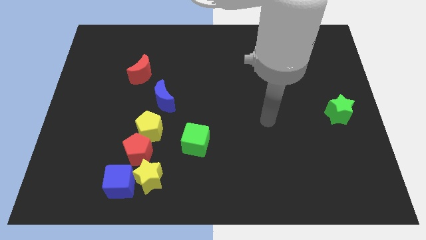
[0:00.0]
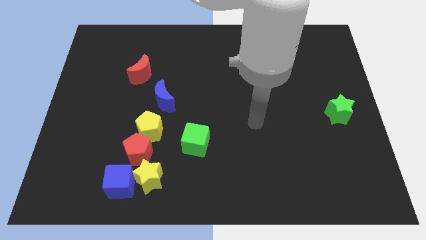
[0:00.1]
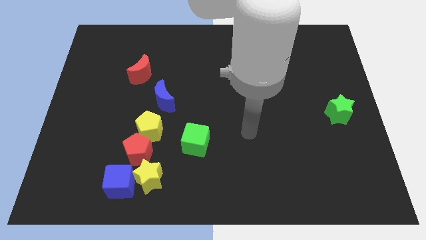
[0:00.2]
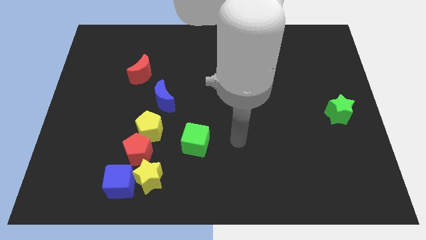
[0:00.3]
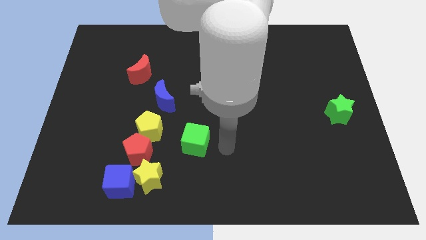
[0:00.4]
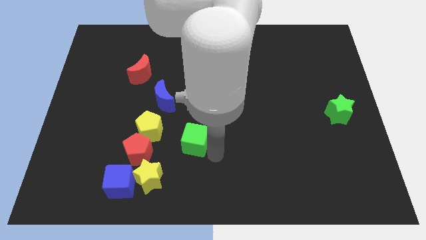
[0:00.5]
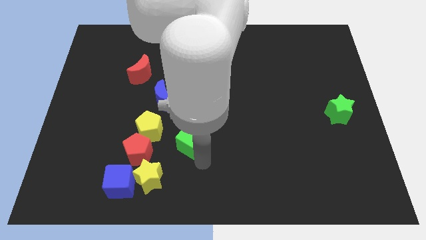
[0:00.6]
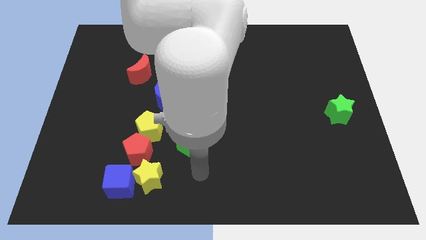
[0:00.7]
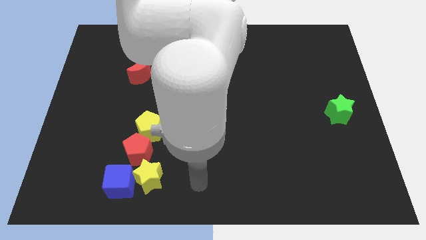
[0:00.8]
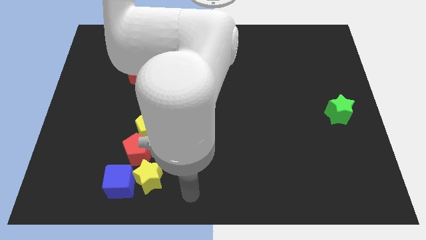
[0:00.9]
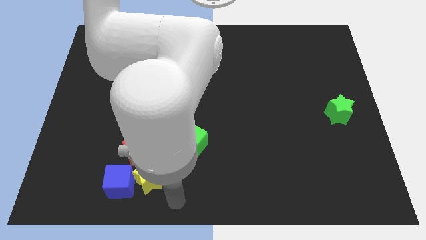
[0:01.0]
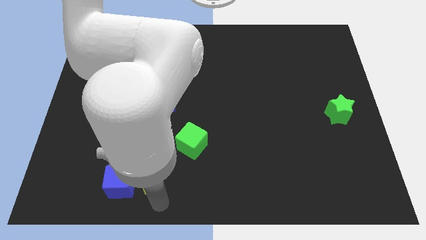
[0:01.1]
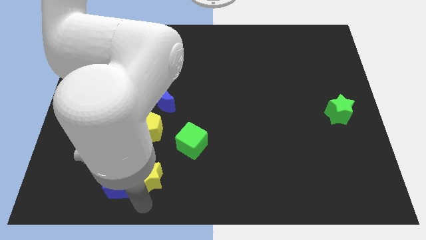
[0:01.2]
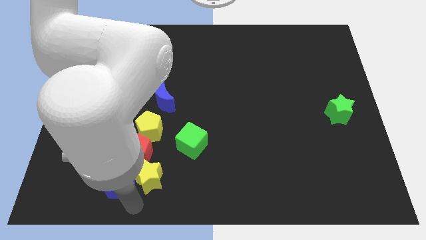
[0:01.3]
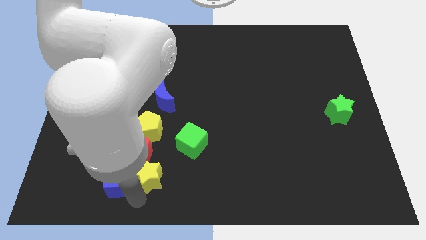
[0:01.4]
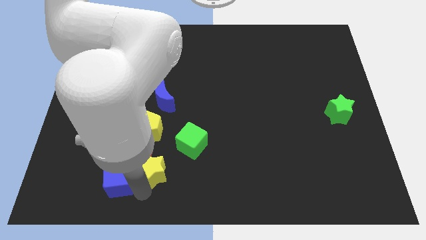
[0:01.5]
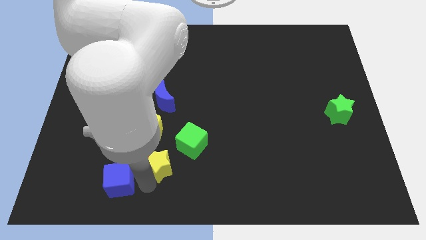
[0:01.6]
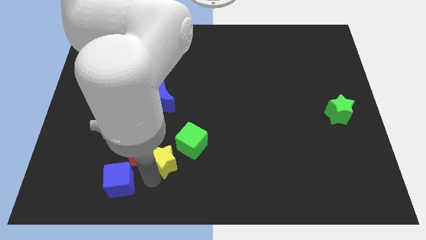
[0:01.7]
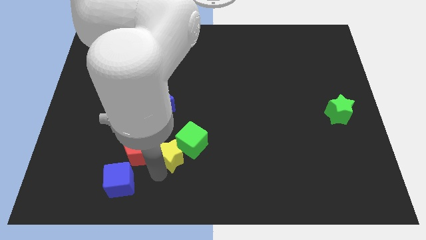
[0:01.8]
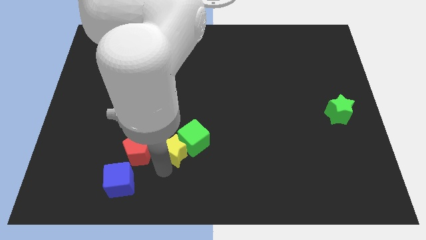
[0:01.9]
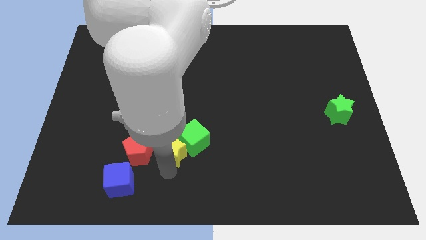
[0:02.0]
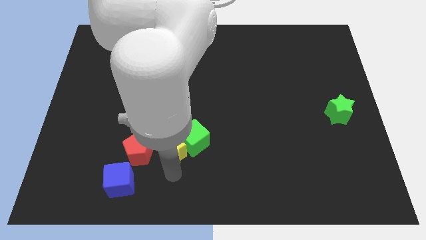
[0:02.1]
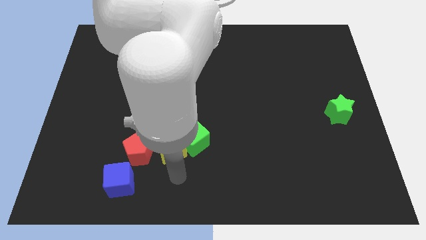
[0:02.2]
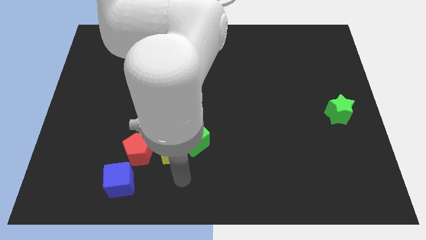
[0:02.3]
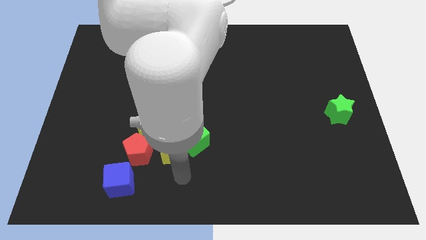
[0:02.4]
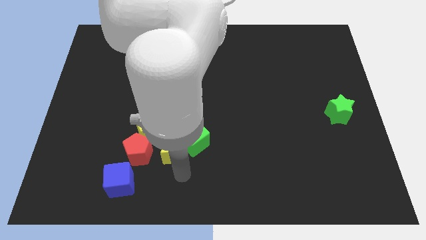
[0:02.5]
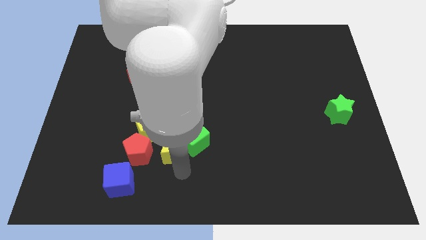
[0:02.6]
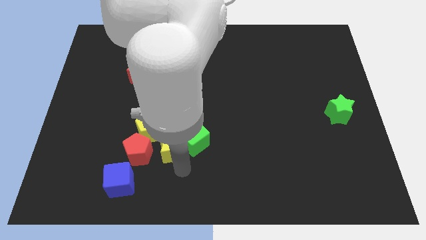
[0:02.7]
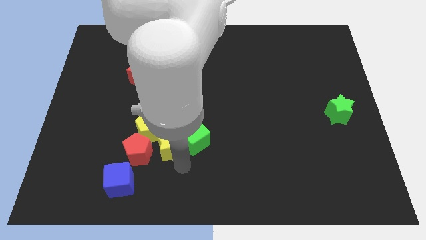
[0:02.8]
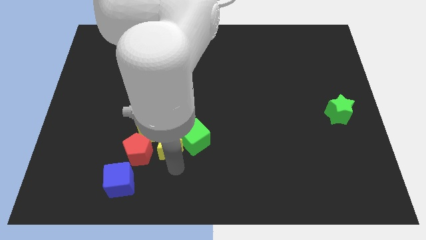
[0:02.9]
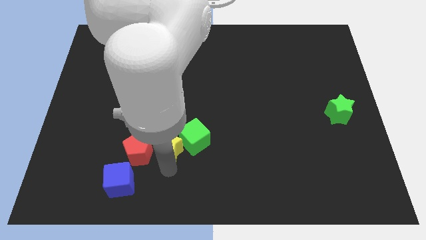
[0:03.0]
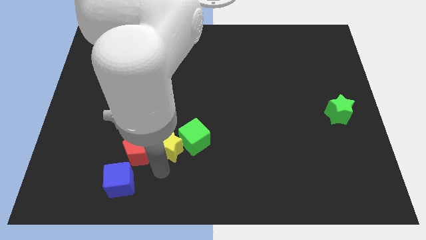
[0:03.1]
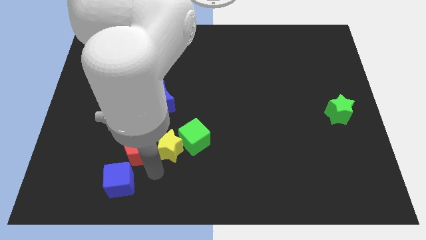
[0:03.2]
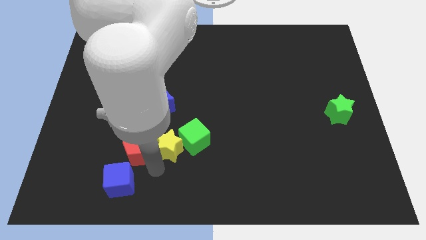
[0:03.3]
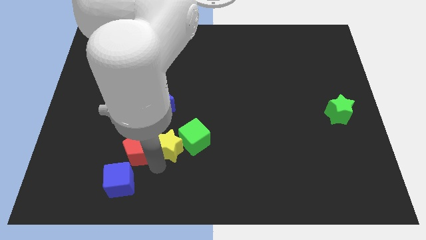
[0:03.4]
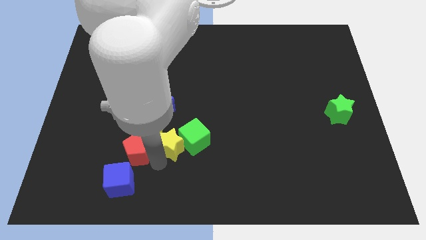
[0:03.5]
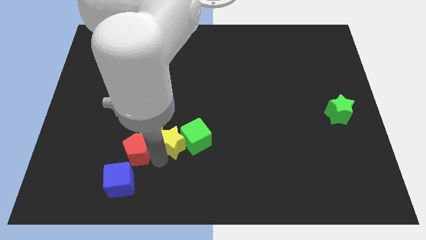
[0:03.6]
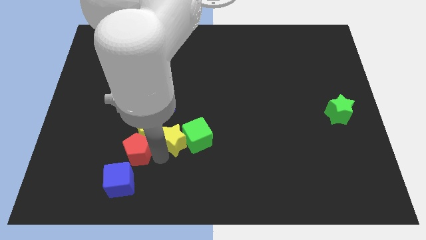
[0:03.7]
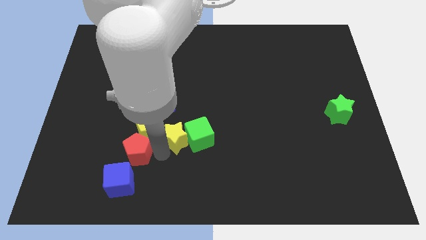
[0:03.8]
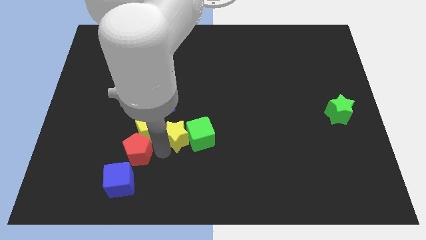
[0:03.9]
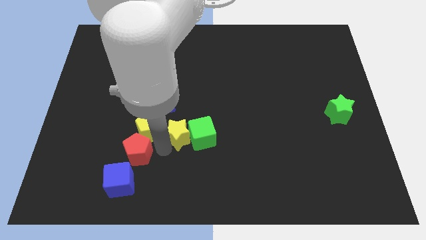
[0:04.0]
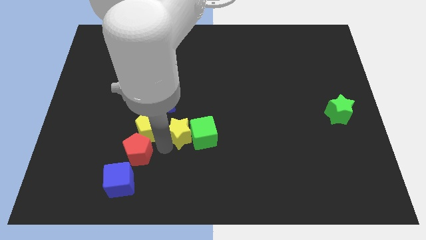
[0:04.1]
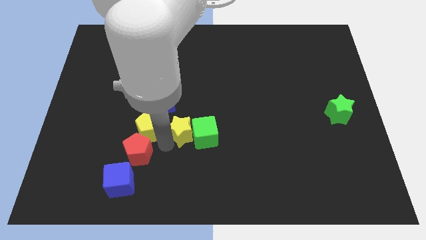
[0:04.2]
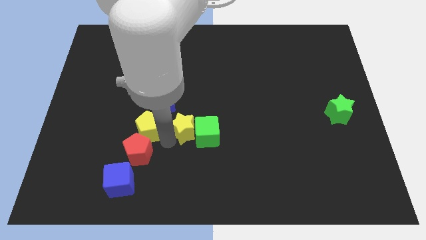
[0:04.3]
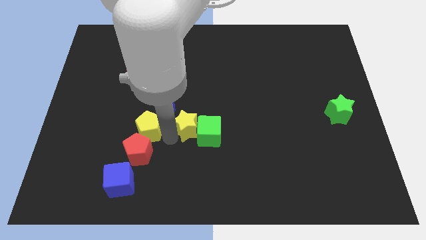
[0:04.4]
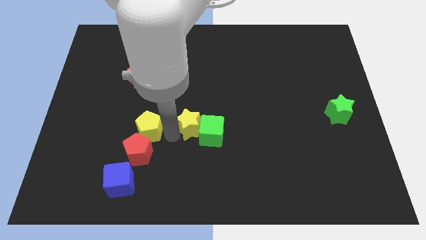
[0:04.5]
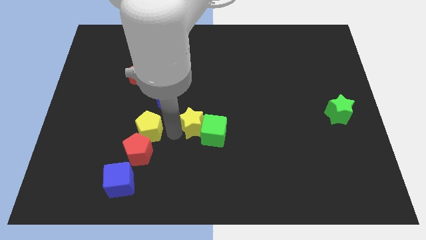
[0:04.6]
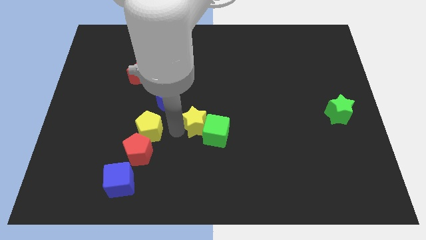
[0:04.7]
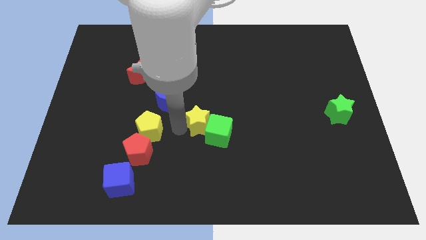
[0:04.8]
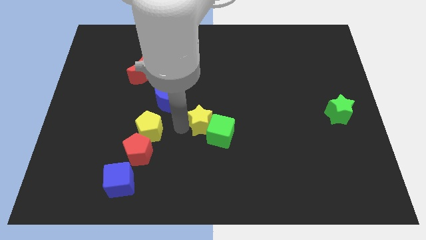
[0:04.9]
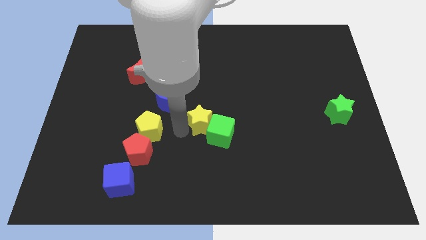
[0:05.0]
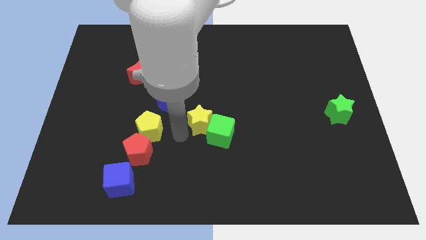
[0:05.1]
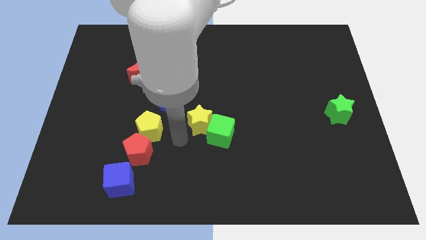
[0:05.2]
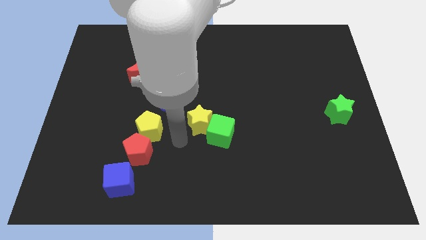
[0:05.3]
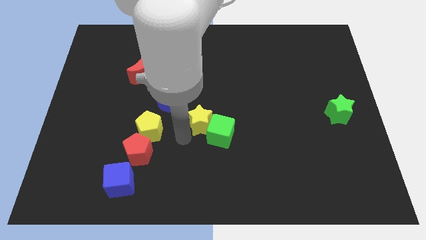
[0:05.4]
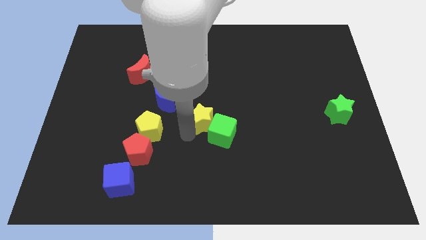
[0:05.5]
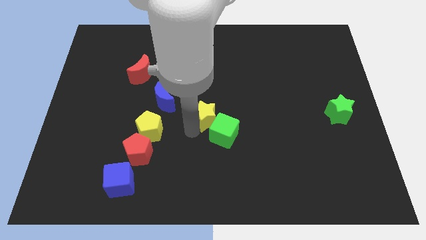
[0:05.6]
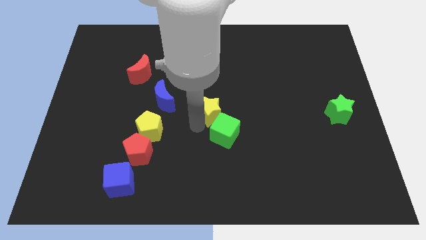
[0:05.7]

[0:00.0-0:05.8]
slide the yellow star up and then to the right

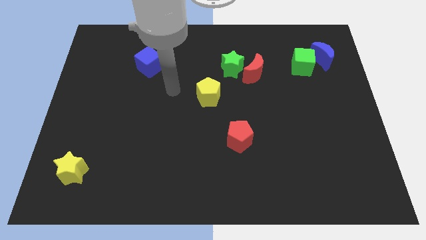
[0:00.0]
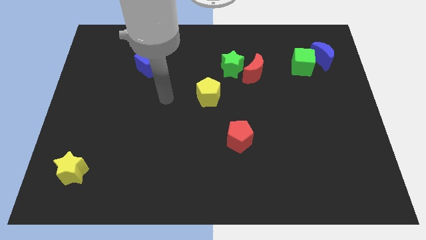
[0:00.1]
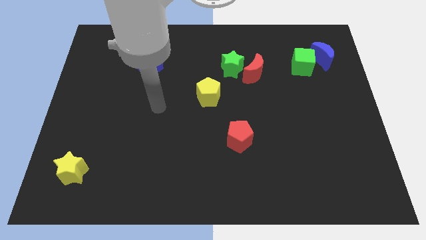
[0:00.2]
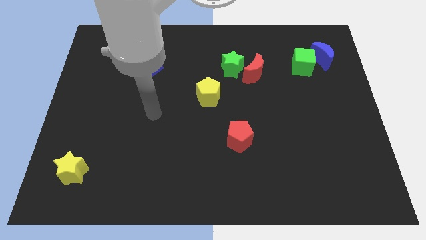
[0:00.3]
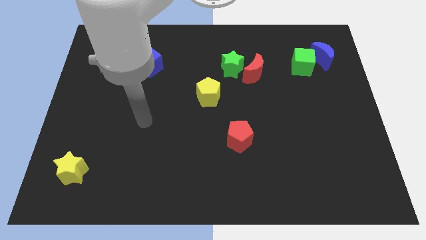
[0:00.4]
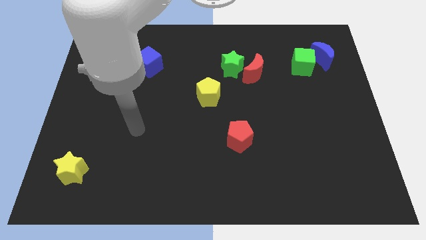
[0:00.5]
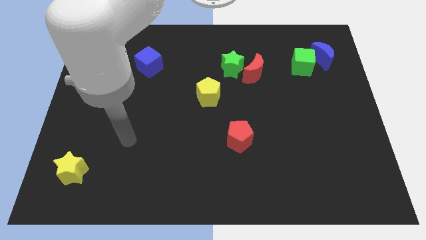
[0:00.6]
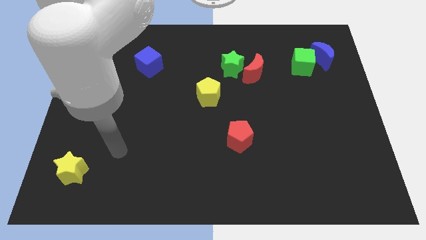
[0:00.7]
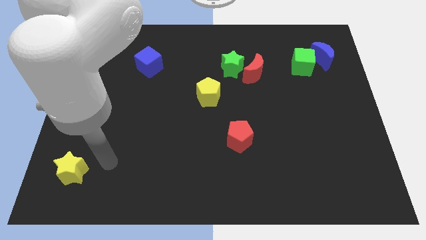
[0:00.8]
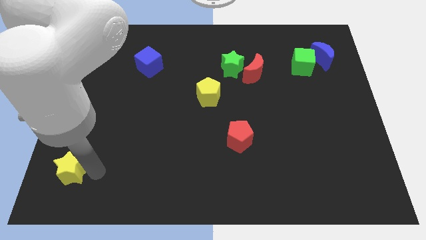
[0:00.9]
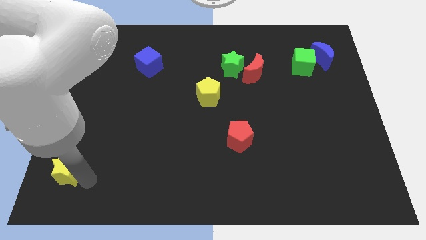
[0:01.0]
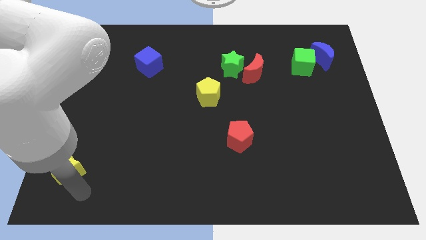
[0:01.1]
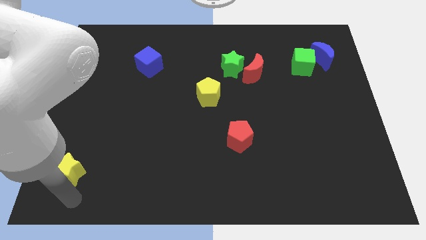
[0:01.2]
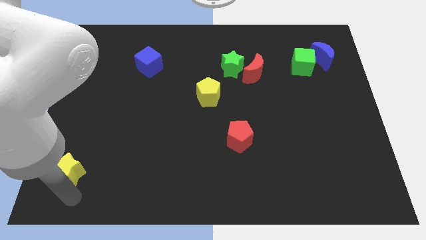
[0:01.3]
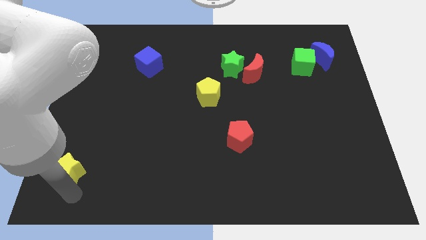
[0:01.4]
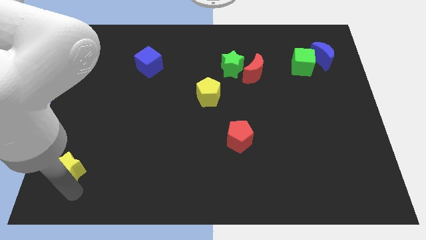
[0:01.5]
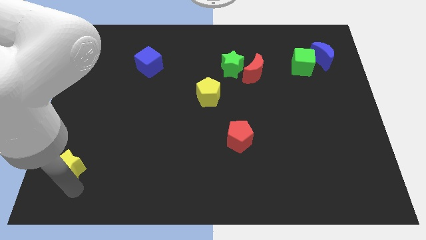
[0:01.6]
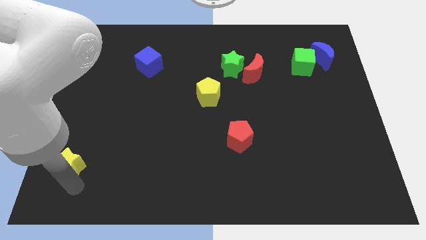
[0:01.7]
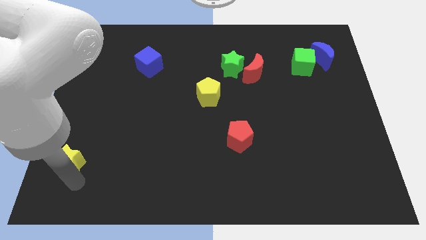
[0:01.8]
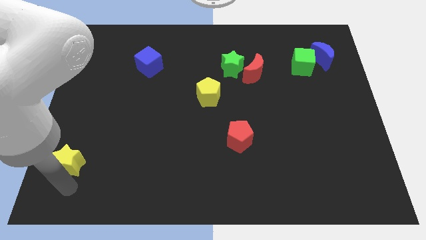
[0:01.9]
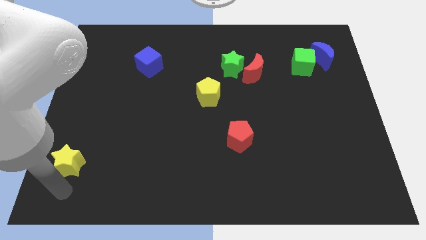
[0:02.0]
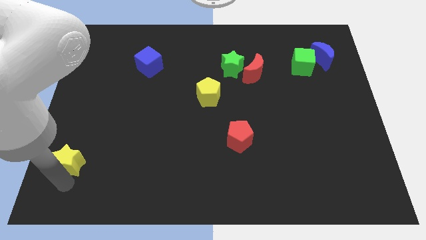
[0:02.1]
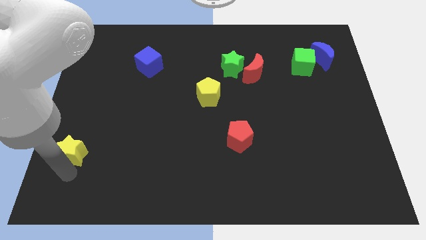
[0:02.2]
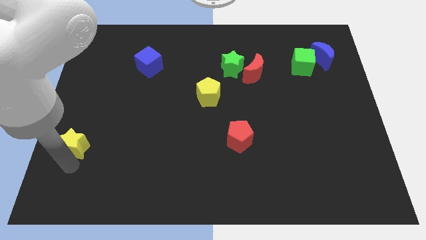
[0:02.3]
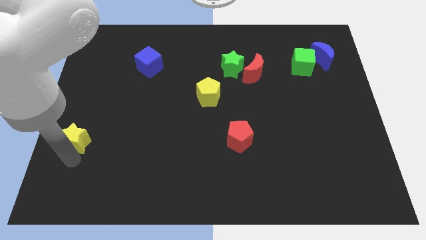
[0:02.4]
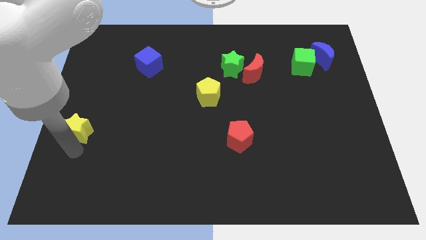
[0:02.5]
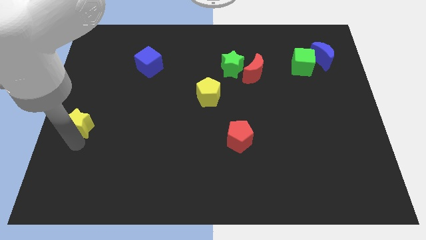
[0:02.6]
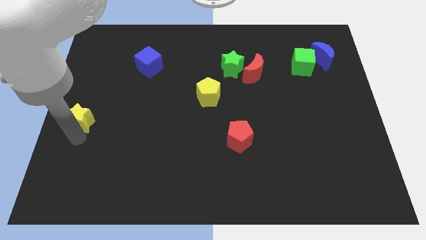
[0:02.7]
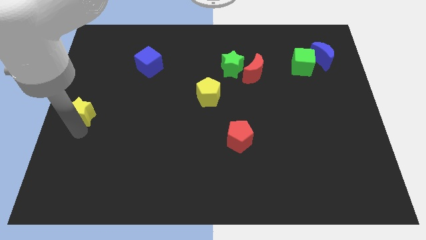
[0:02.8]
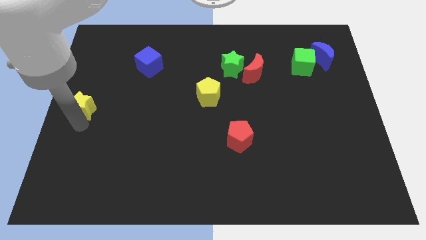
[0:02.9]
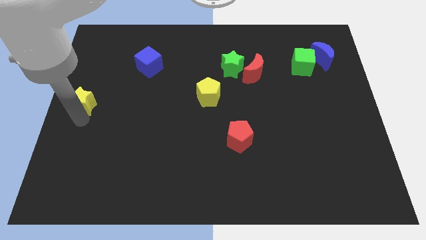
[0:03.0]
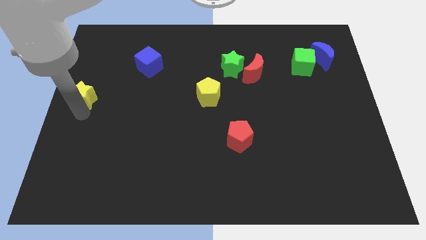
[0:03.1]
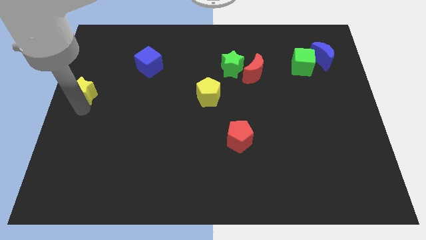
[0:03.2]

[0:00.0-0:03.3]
move the yellow star up
